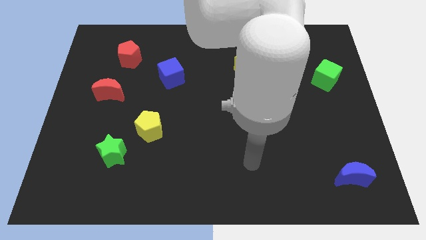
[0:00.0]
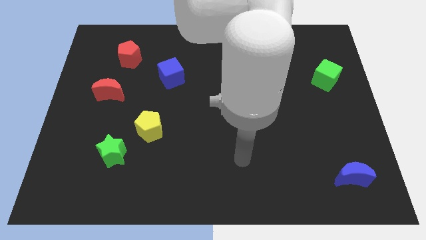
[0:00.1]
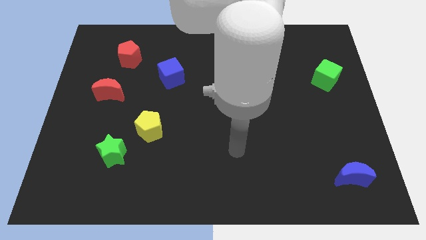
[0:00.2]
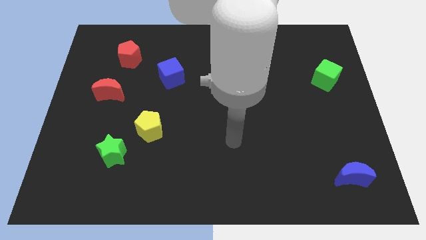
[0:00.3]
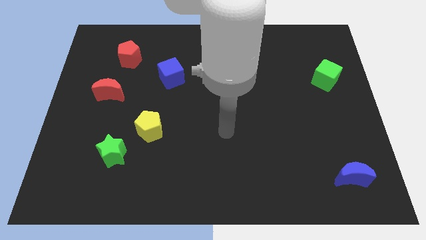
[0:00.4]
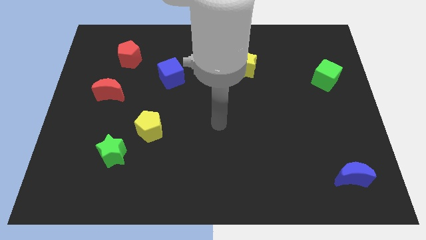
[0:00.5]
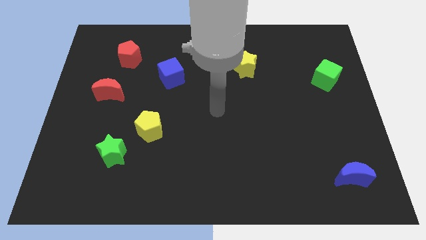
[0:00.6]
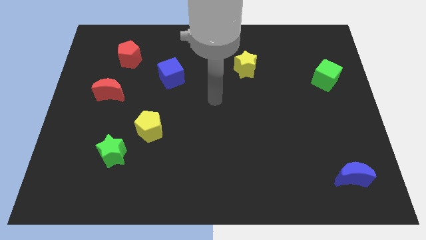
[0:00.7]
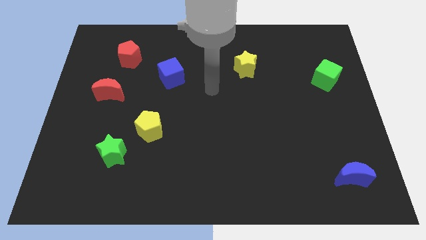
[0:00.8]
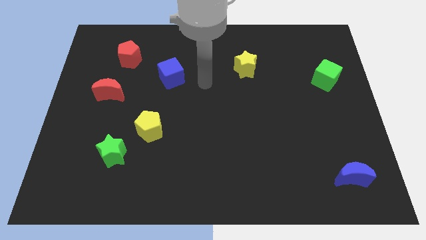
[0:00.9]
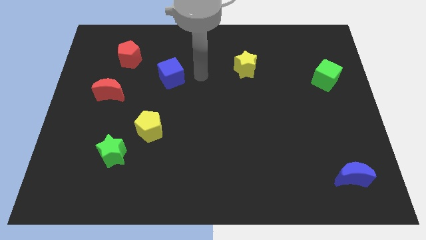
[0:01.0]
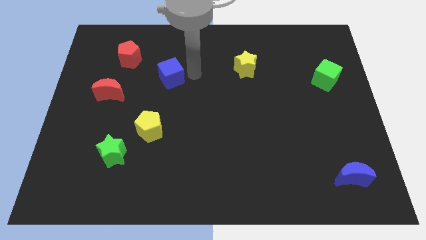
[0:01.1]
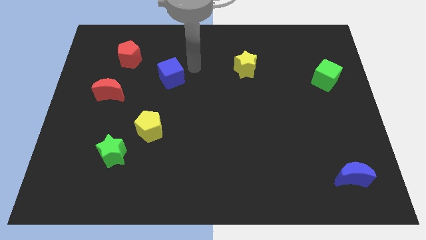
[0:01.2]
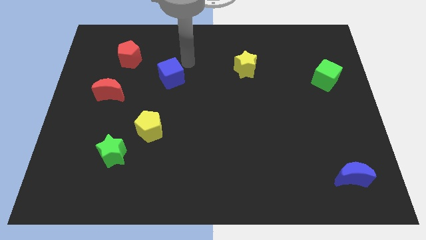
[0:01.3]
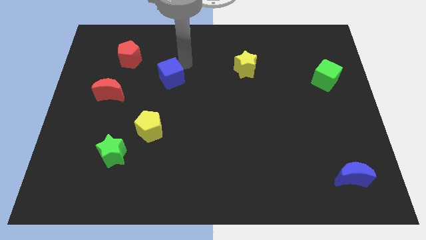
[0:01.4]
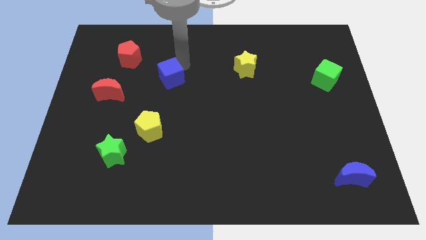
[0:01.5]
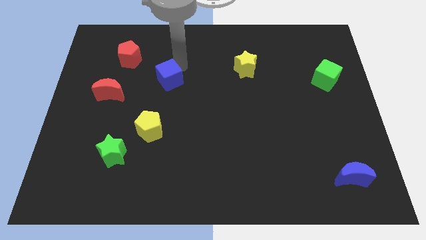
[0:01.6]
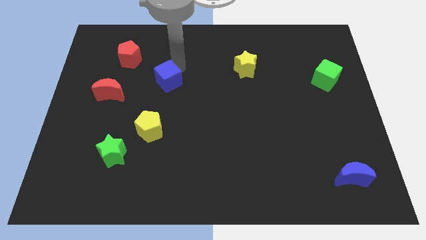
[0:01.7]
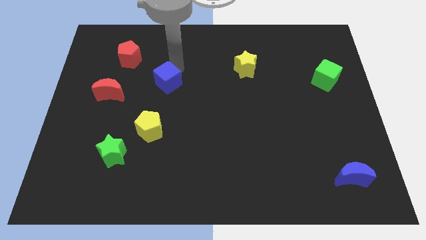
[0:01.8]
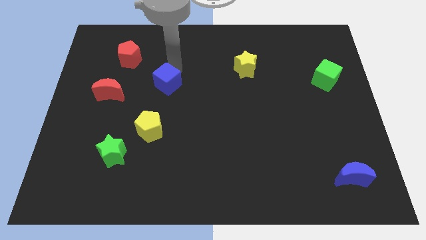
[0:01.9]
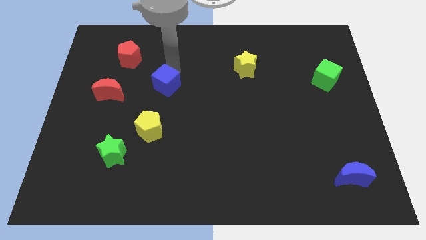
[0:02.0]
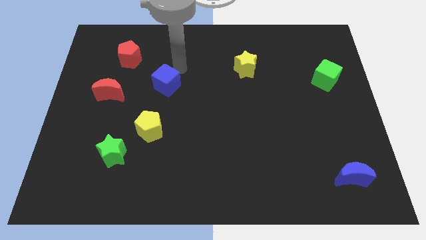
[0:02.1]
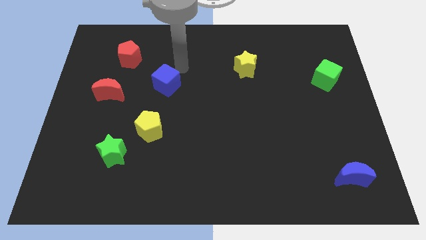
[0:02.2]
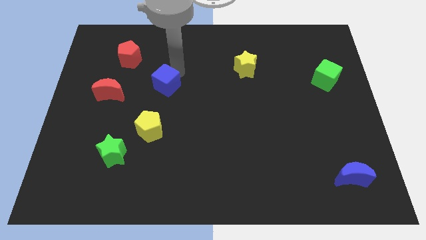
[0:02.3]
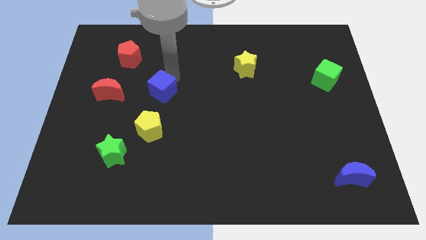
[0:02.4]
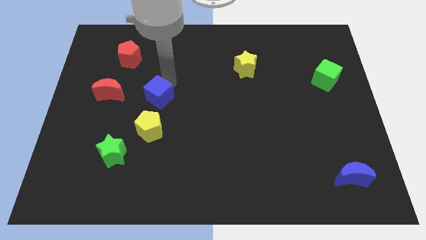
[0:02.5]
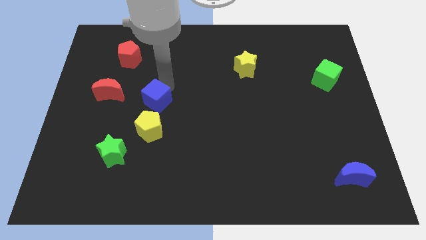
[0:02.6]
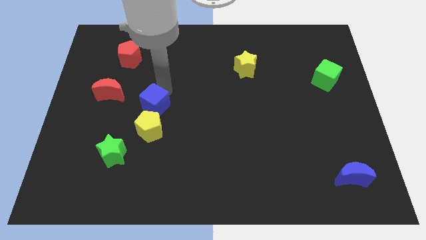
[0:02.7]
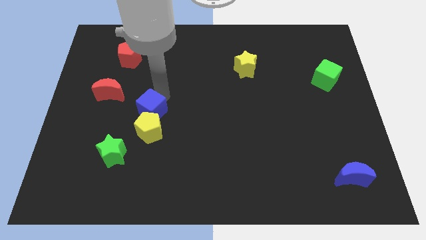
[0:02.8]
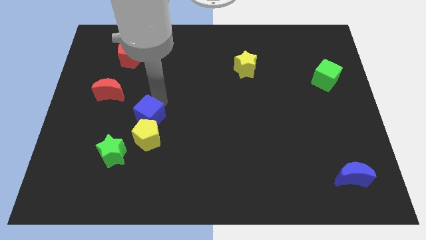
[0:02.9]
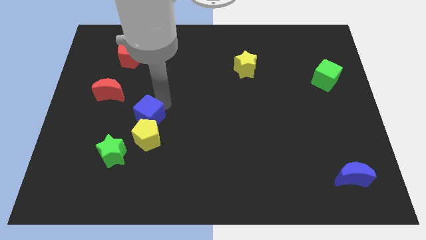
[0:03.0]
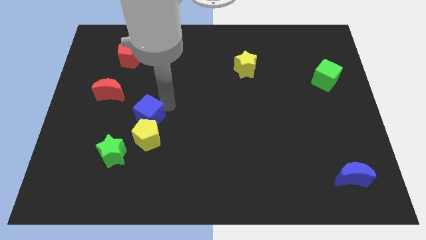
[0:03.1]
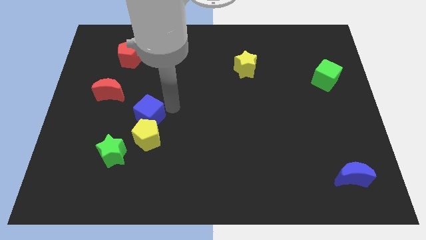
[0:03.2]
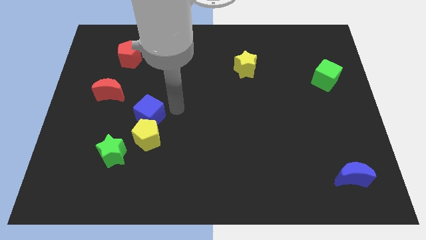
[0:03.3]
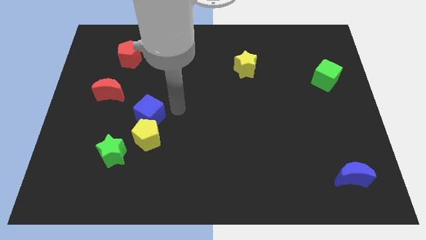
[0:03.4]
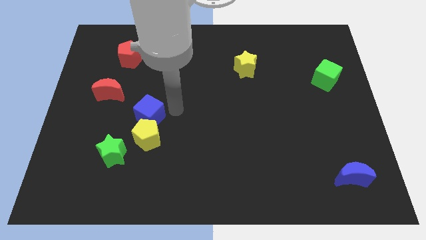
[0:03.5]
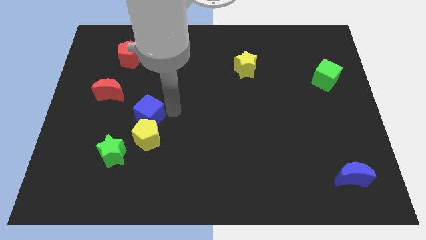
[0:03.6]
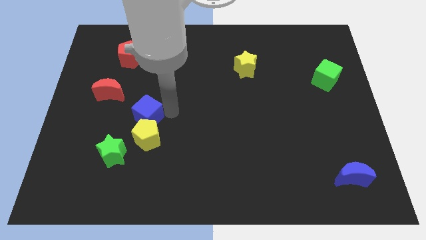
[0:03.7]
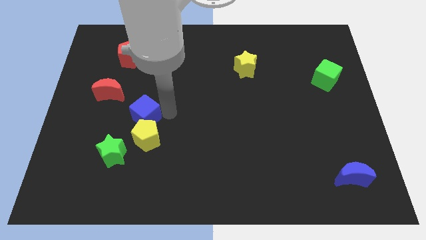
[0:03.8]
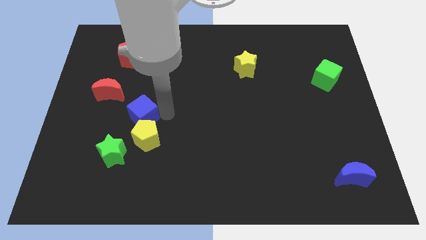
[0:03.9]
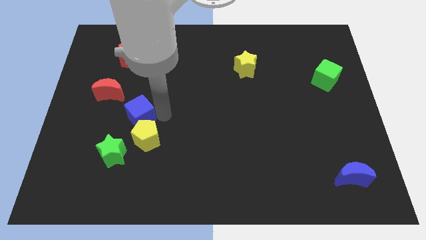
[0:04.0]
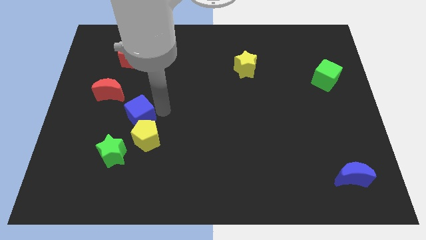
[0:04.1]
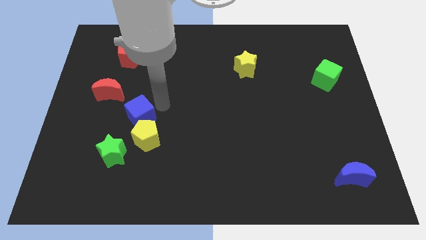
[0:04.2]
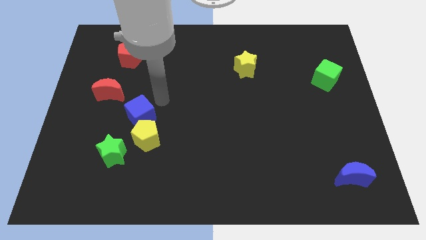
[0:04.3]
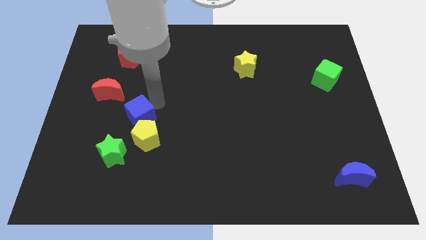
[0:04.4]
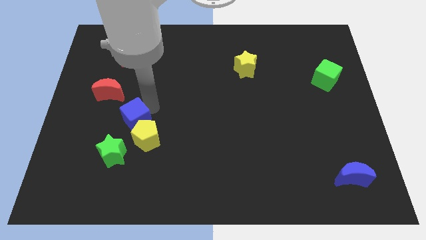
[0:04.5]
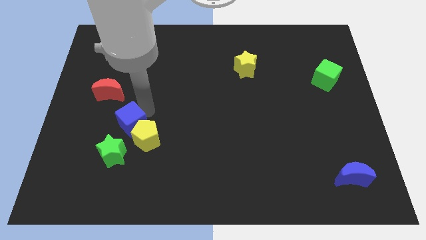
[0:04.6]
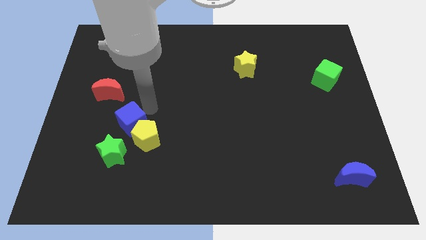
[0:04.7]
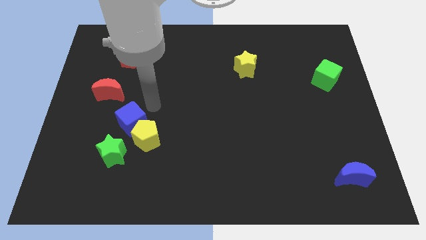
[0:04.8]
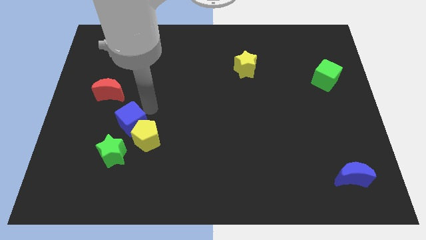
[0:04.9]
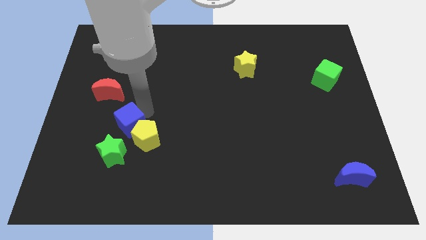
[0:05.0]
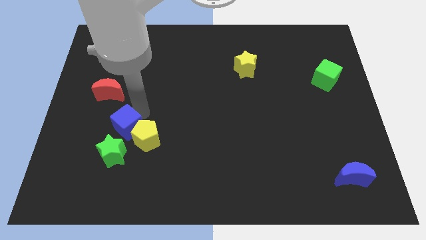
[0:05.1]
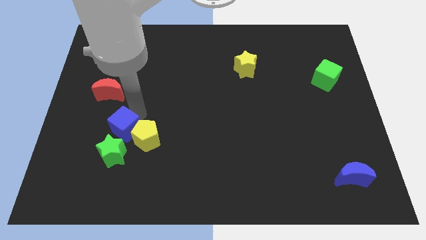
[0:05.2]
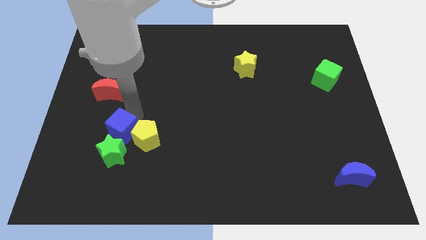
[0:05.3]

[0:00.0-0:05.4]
push the blue cube towards the green star

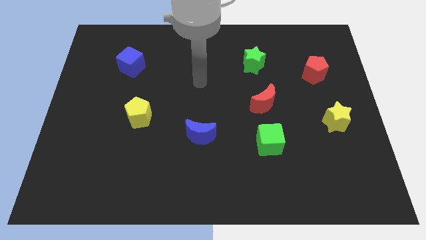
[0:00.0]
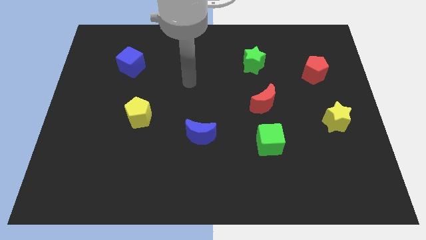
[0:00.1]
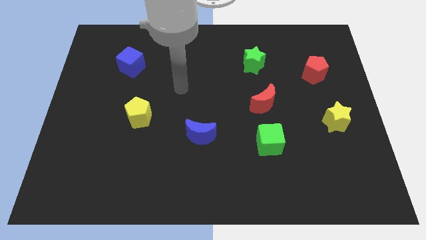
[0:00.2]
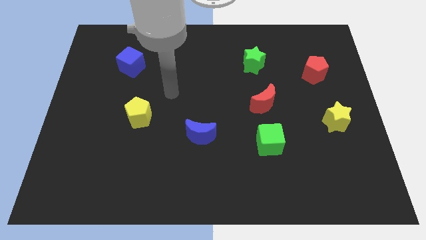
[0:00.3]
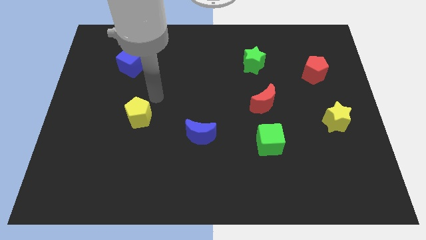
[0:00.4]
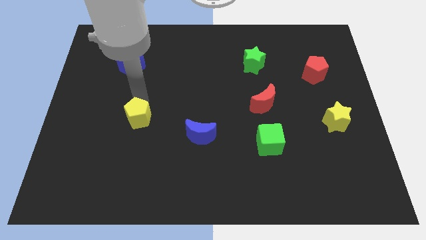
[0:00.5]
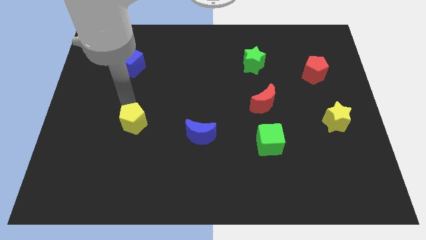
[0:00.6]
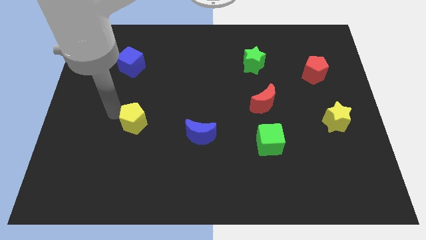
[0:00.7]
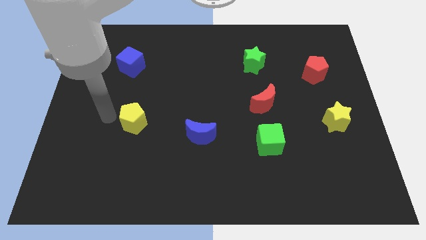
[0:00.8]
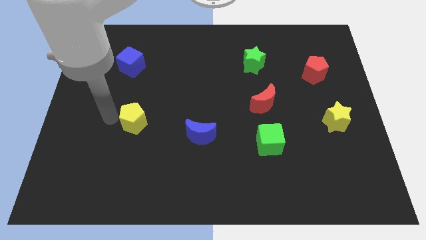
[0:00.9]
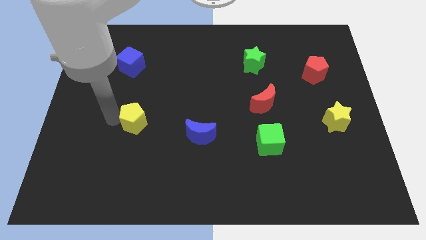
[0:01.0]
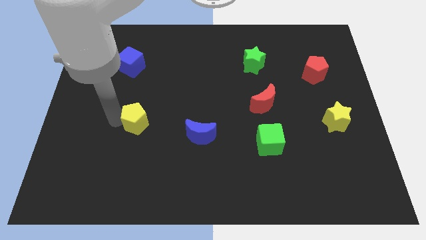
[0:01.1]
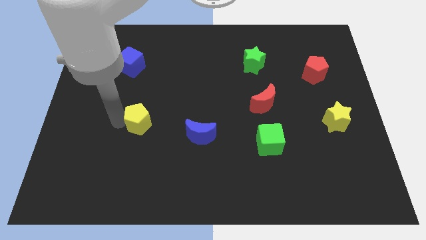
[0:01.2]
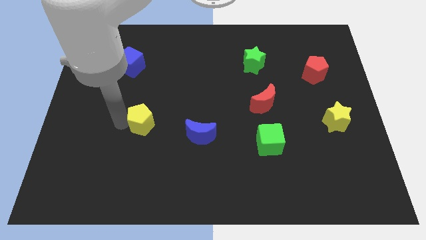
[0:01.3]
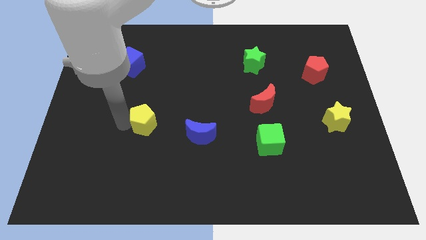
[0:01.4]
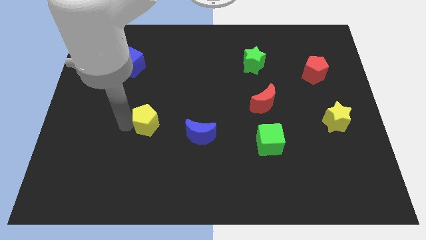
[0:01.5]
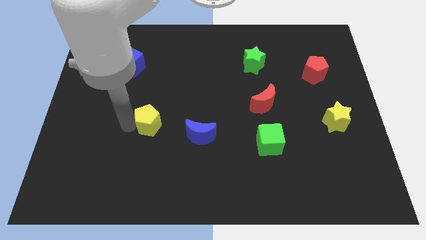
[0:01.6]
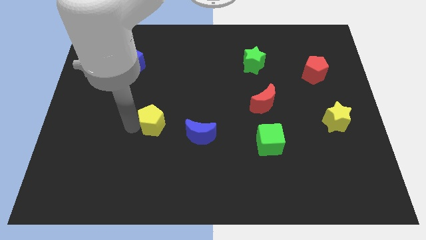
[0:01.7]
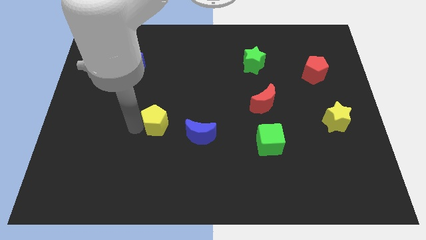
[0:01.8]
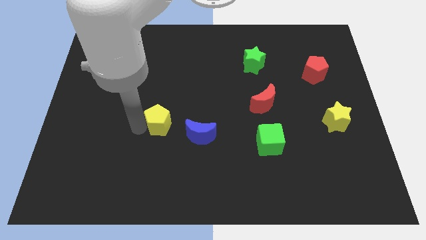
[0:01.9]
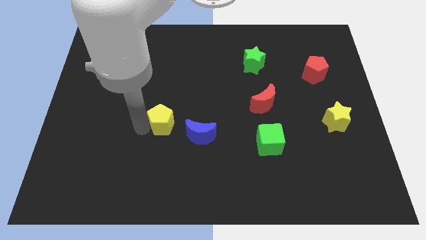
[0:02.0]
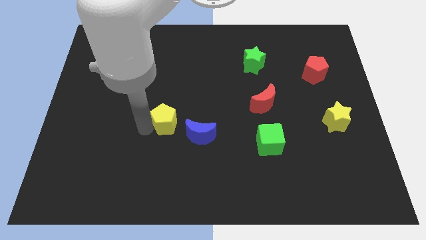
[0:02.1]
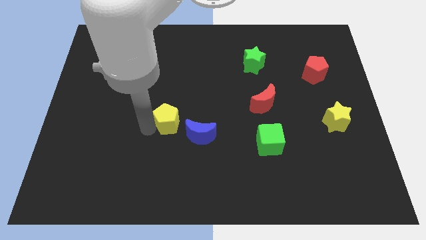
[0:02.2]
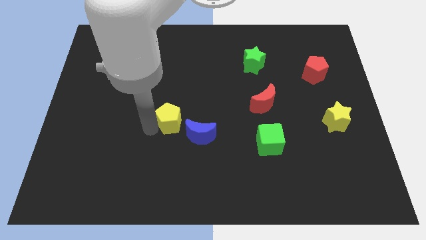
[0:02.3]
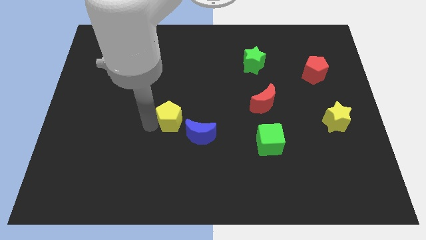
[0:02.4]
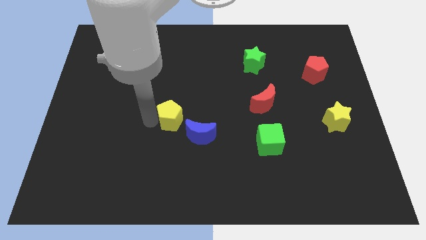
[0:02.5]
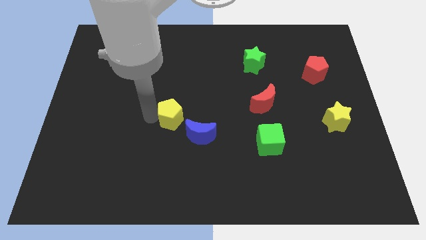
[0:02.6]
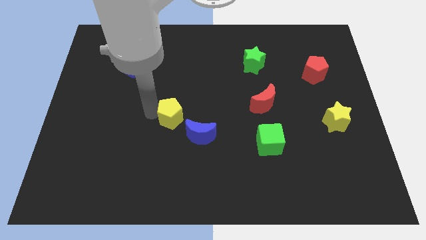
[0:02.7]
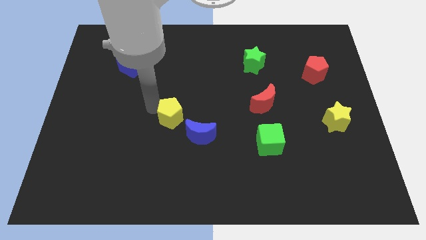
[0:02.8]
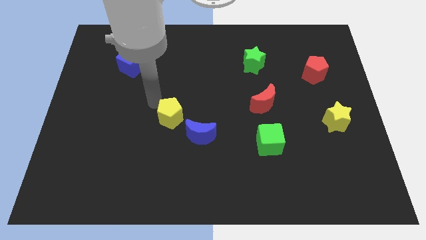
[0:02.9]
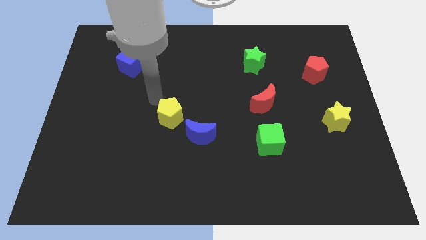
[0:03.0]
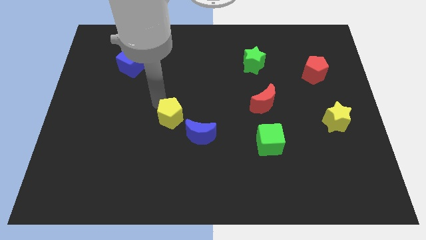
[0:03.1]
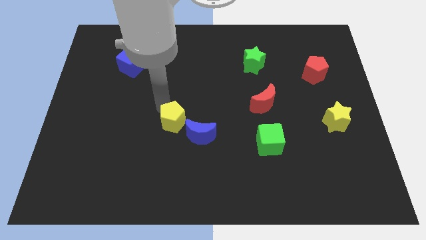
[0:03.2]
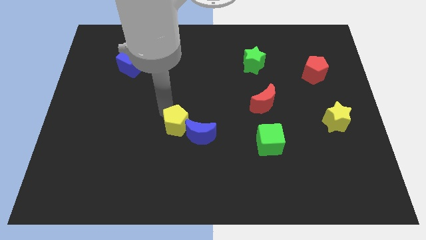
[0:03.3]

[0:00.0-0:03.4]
push the yellow pentagon towards the blue moon
